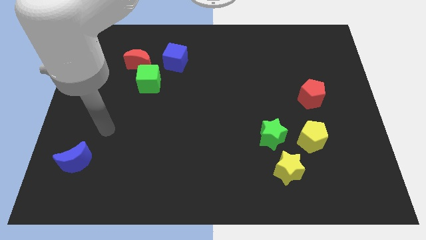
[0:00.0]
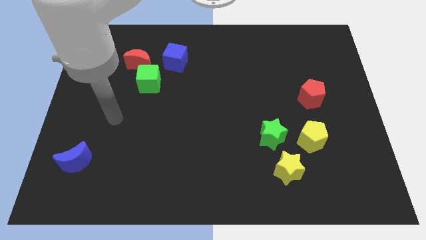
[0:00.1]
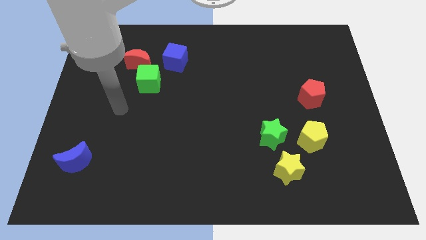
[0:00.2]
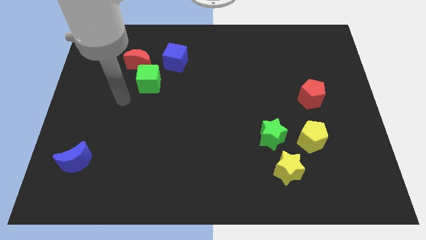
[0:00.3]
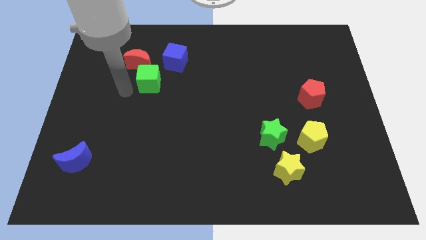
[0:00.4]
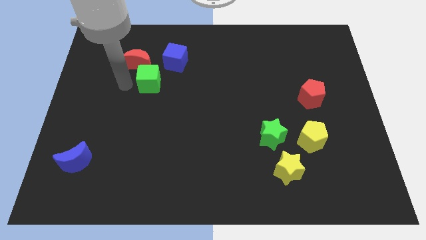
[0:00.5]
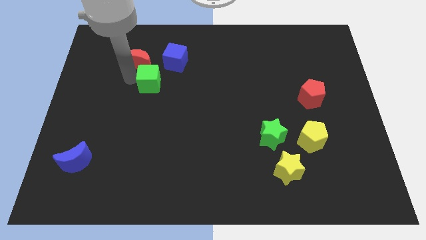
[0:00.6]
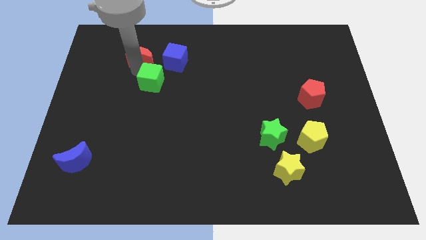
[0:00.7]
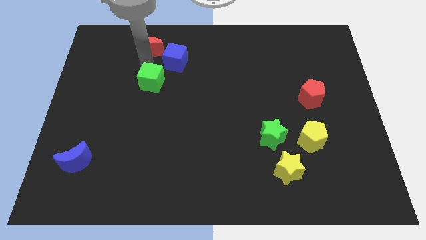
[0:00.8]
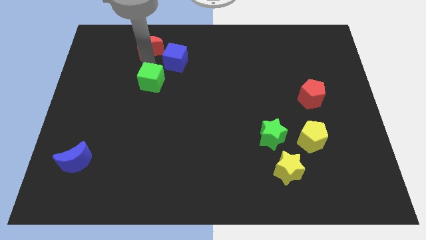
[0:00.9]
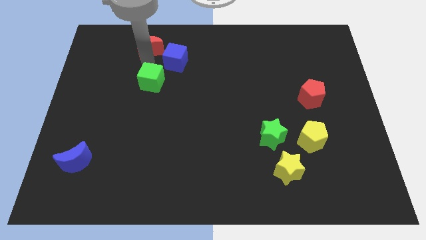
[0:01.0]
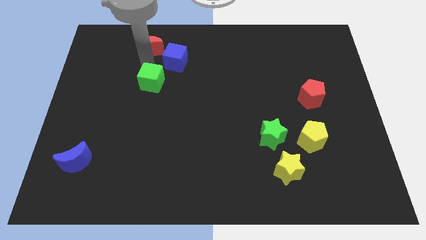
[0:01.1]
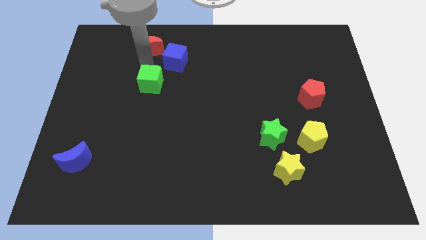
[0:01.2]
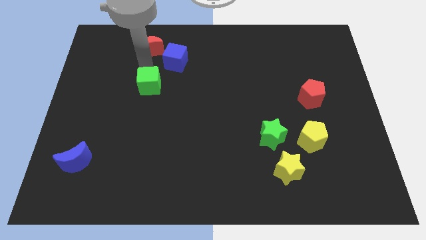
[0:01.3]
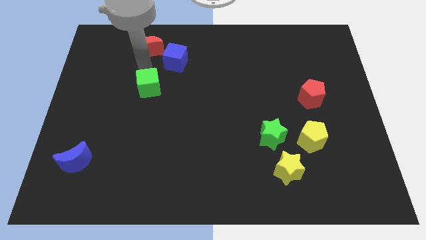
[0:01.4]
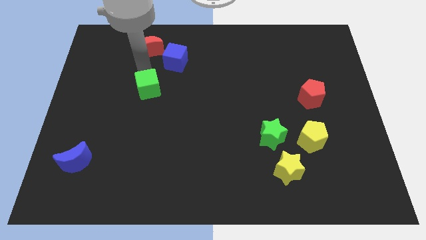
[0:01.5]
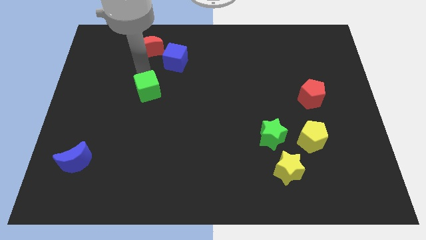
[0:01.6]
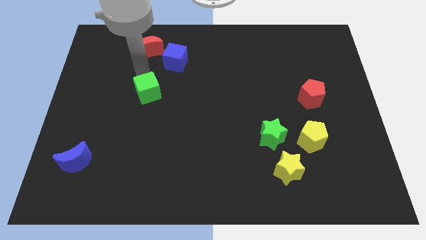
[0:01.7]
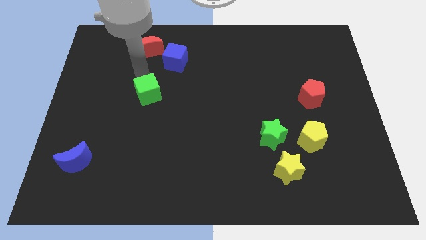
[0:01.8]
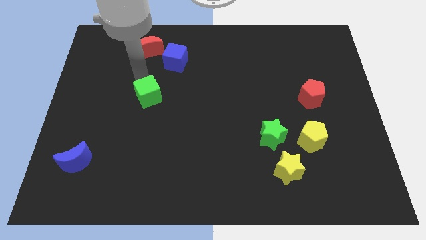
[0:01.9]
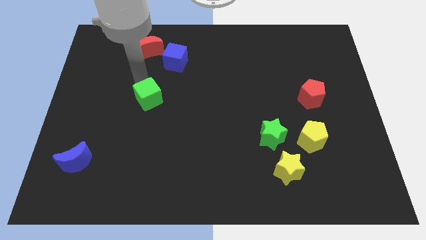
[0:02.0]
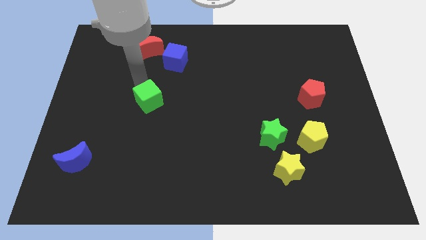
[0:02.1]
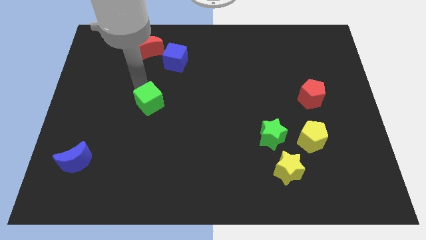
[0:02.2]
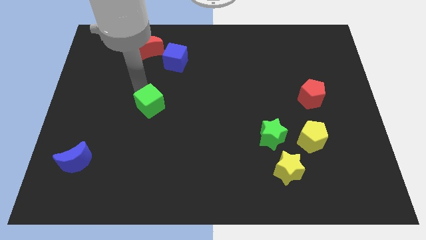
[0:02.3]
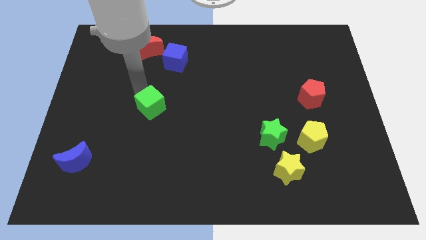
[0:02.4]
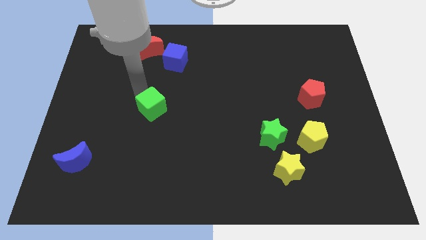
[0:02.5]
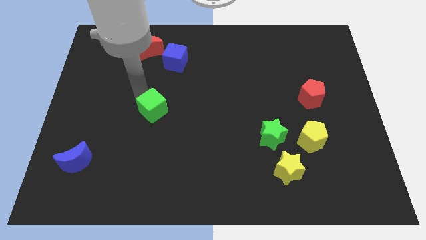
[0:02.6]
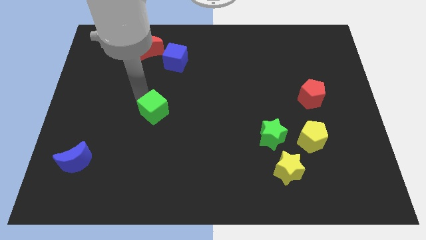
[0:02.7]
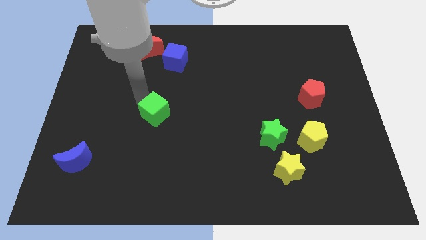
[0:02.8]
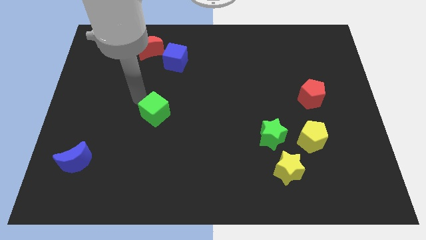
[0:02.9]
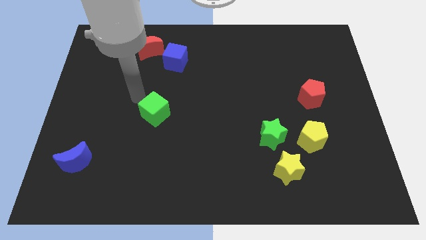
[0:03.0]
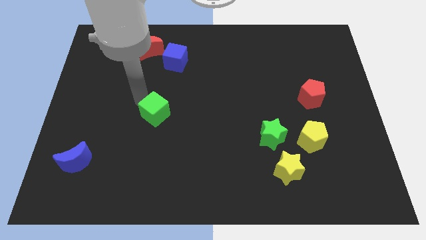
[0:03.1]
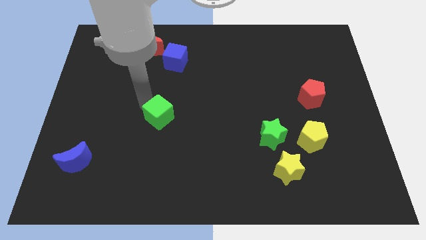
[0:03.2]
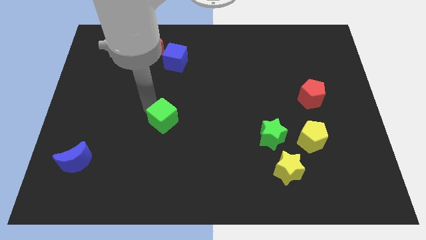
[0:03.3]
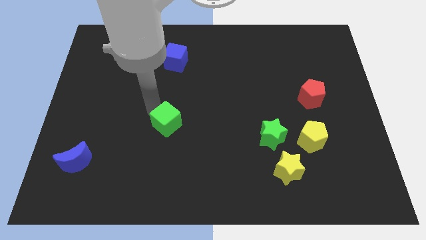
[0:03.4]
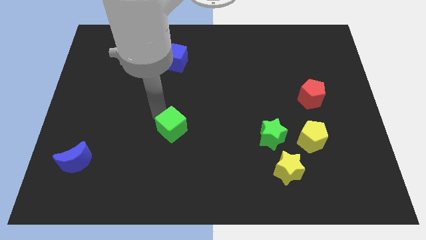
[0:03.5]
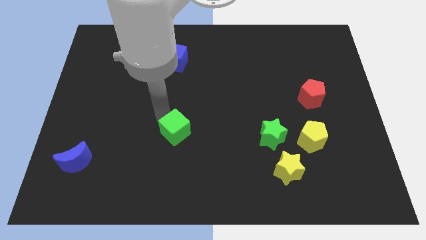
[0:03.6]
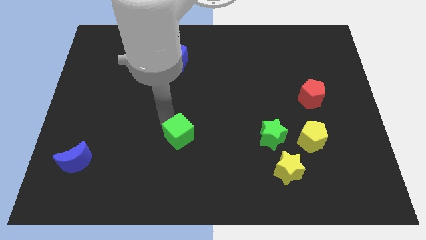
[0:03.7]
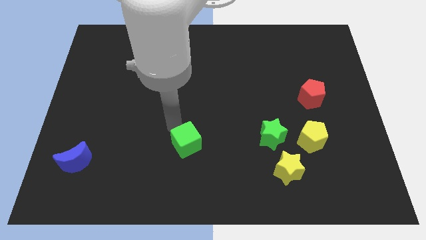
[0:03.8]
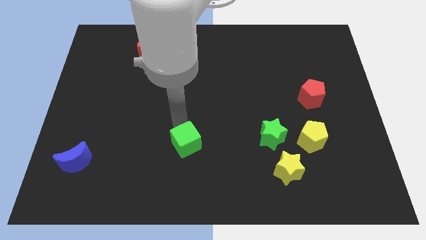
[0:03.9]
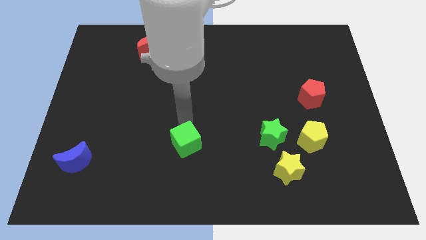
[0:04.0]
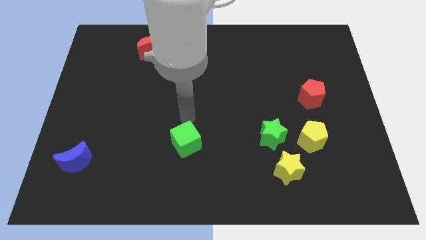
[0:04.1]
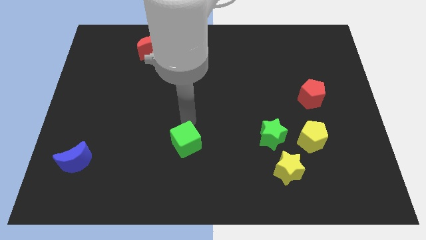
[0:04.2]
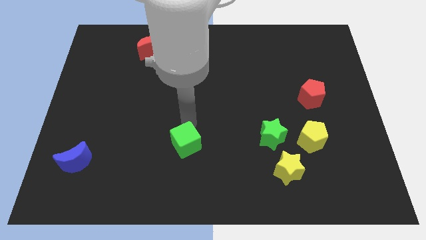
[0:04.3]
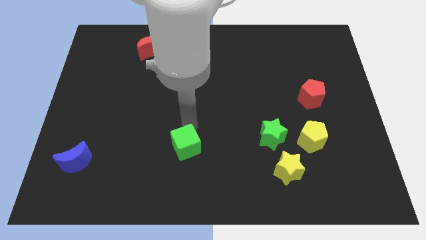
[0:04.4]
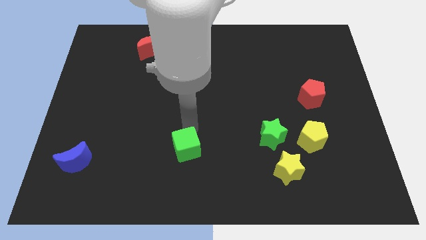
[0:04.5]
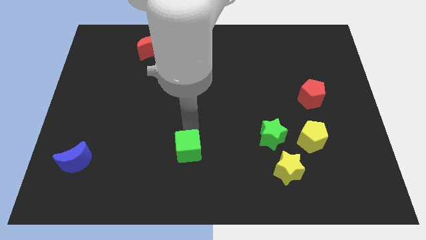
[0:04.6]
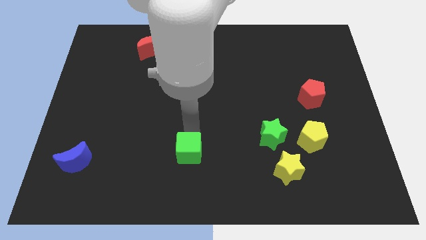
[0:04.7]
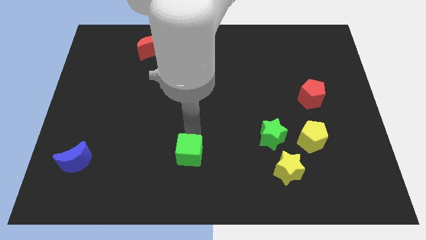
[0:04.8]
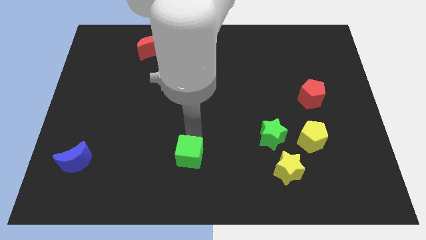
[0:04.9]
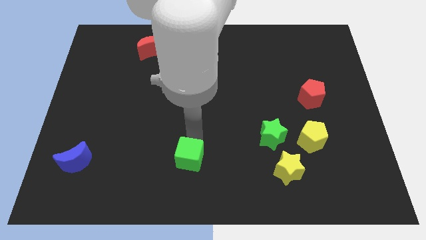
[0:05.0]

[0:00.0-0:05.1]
slide the green cube to the bottom
